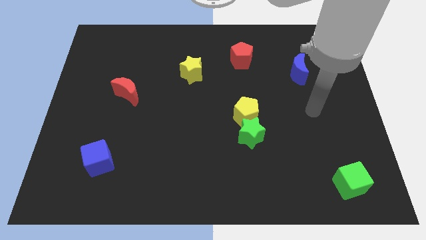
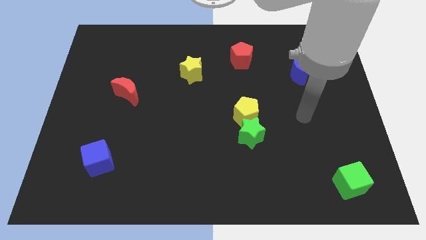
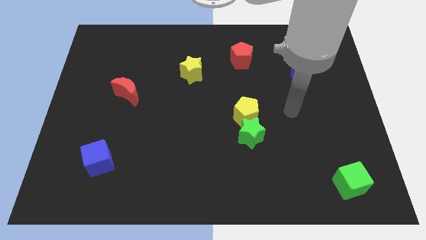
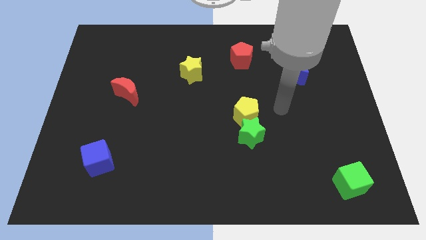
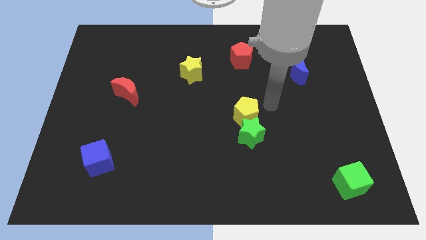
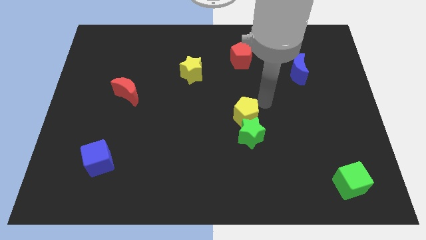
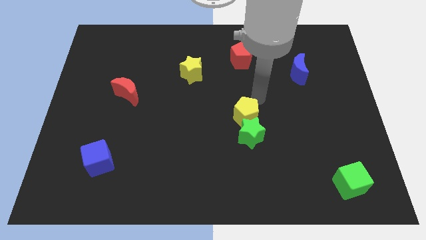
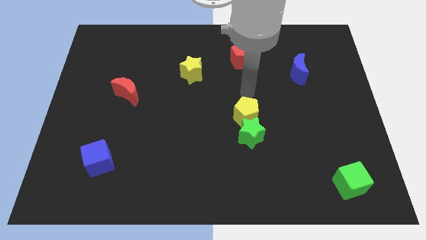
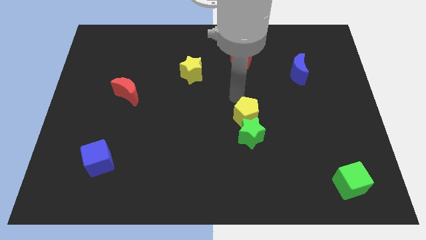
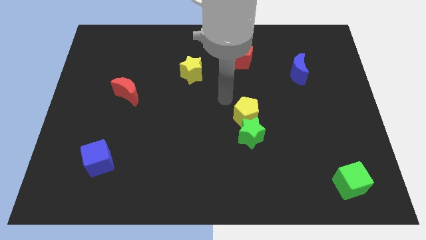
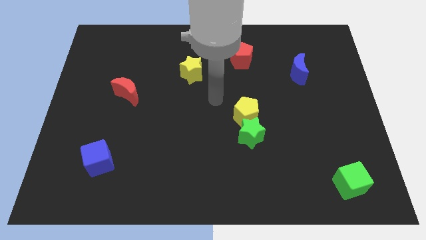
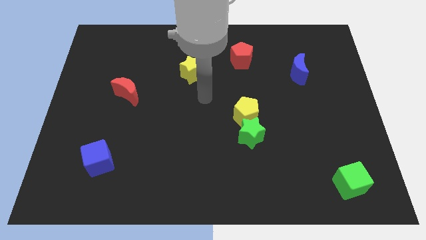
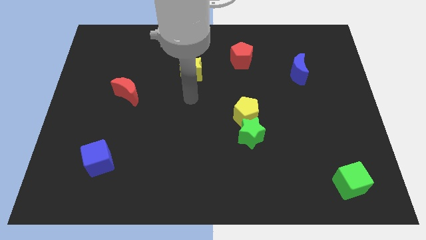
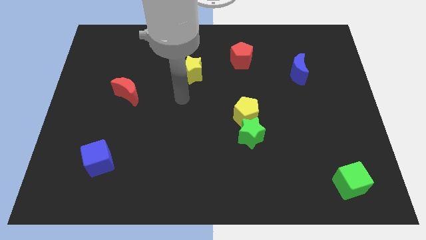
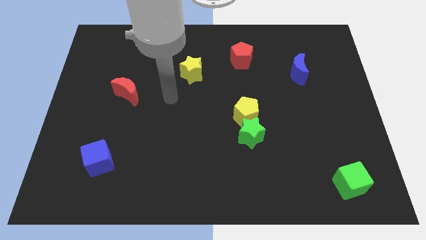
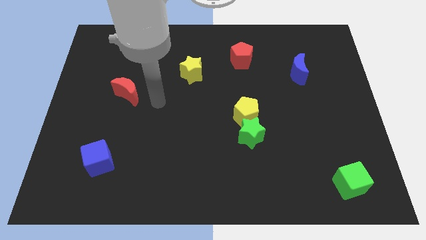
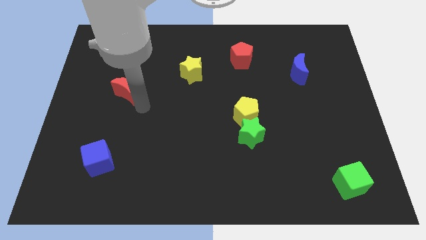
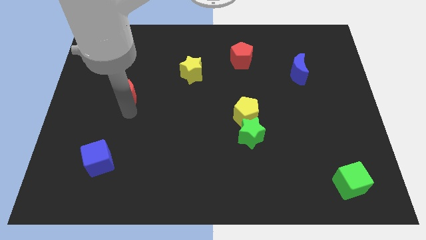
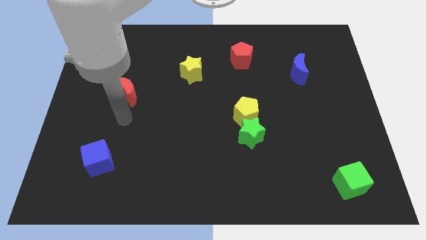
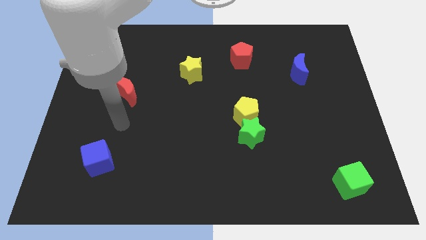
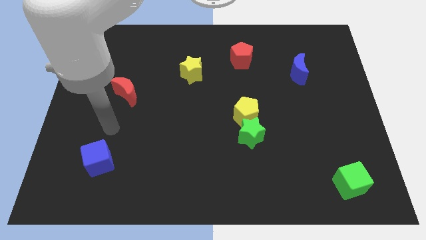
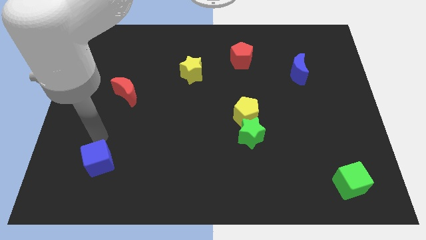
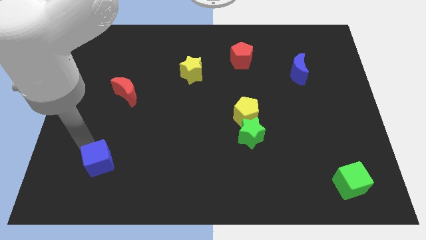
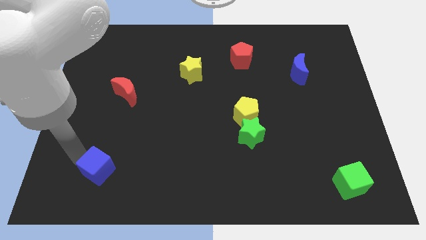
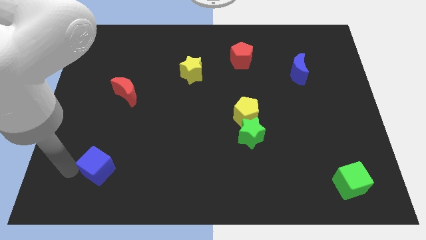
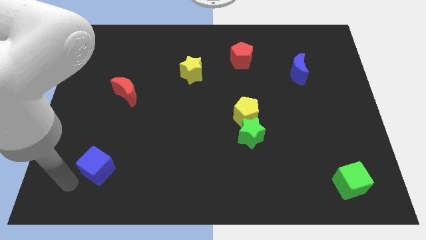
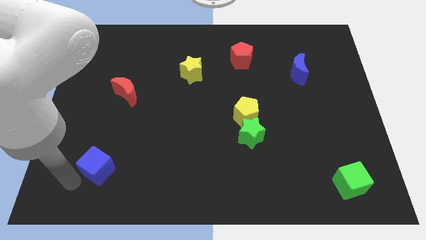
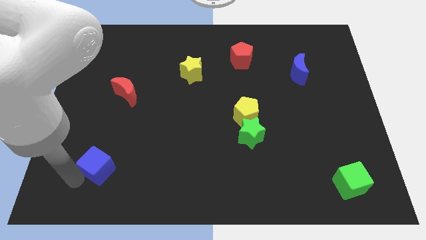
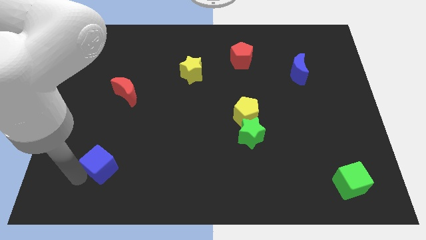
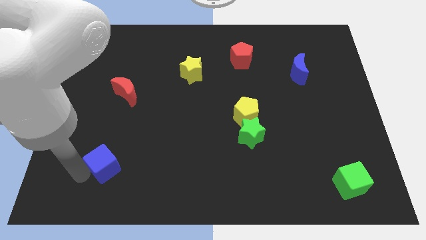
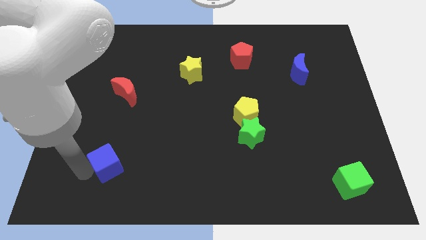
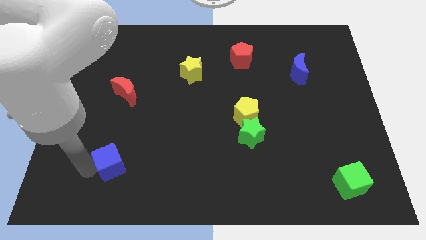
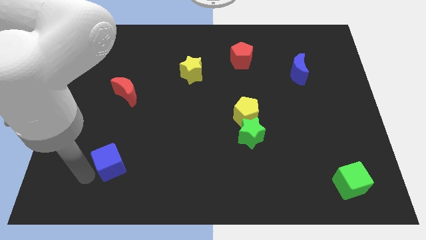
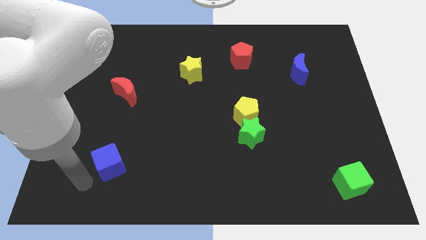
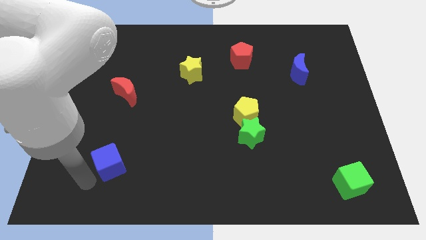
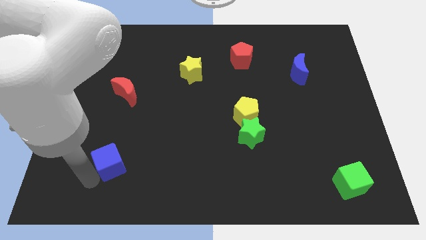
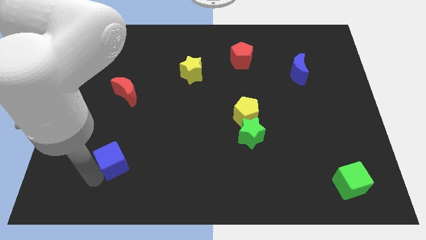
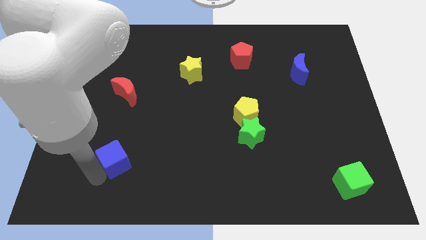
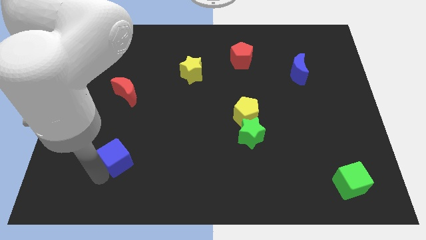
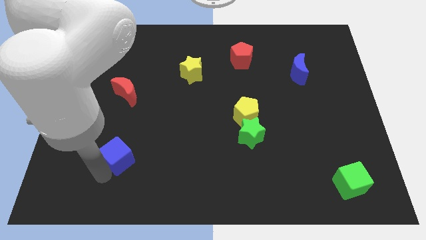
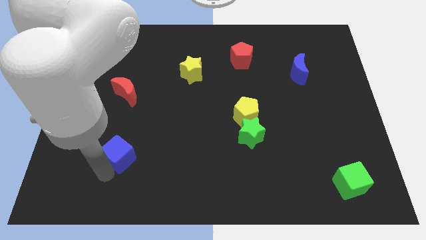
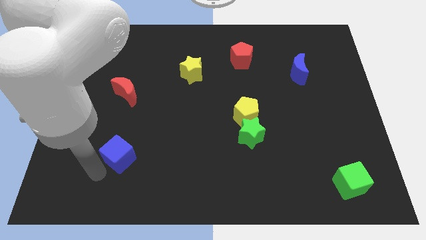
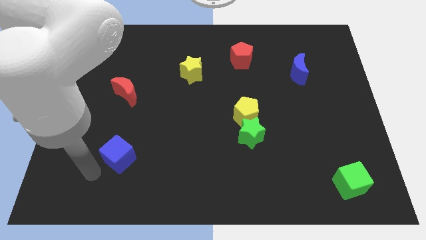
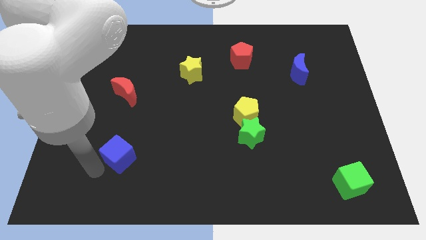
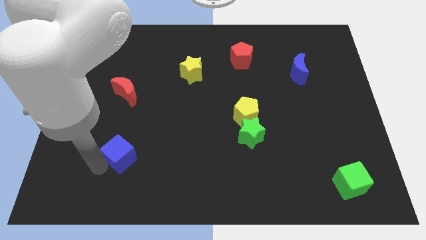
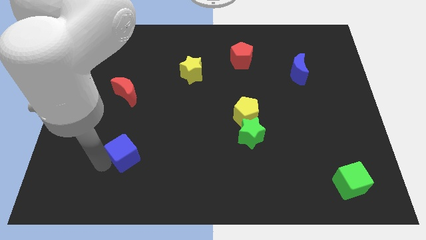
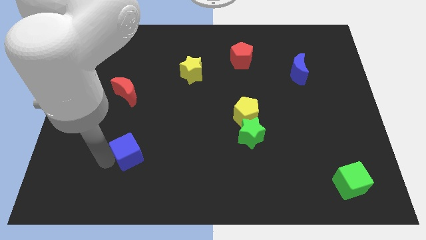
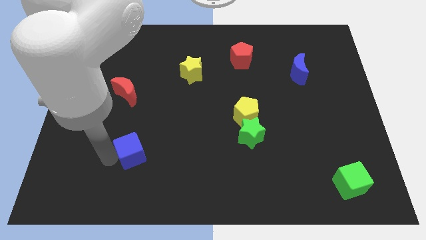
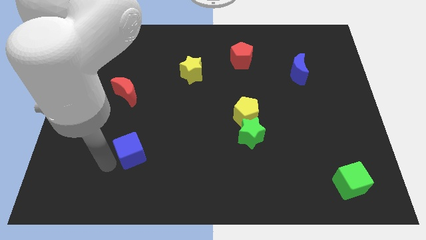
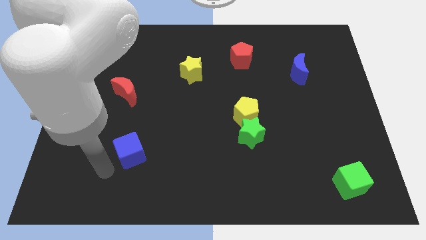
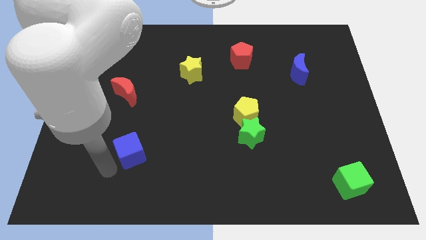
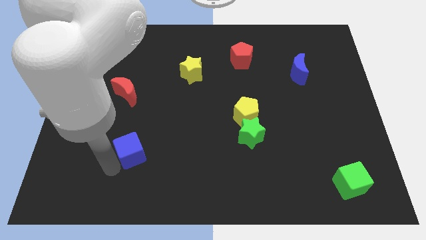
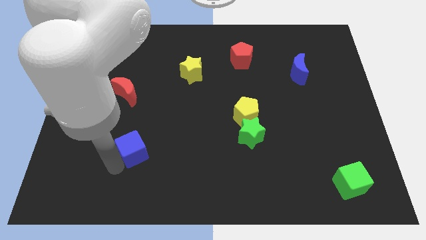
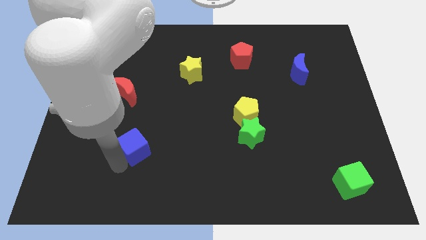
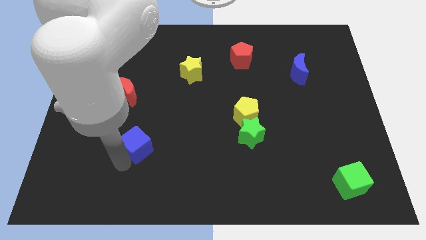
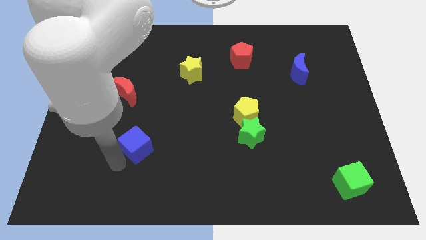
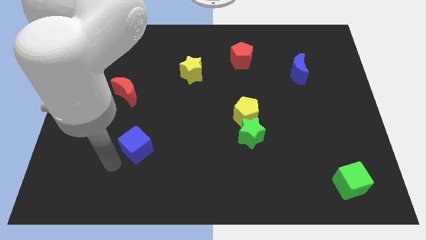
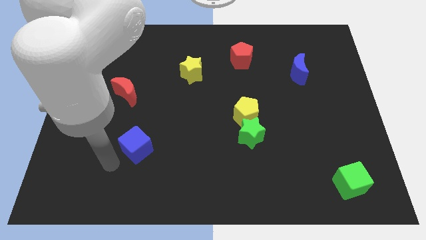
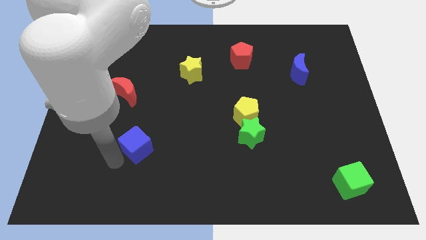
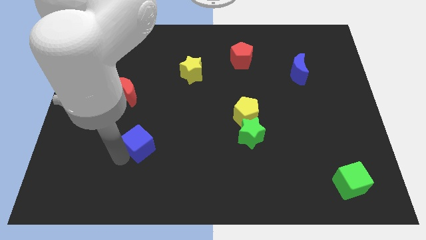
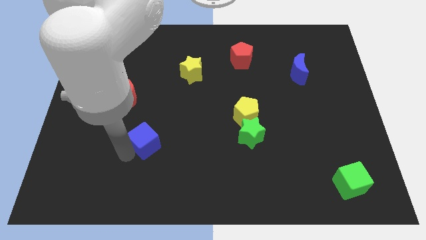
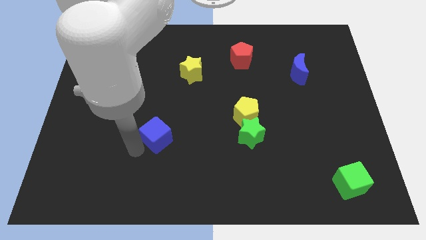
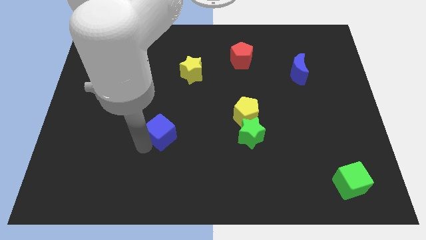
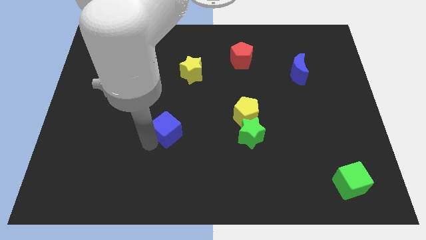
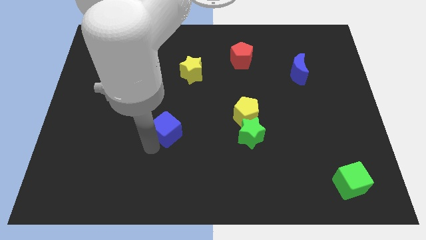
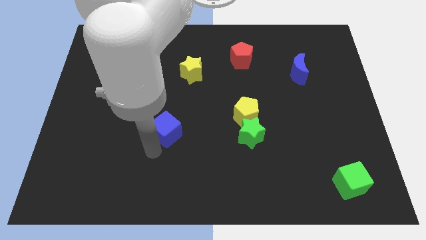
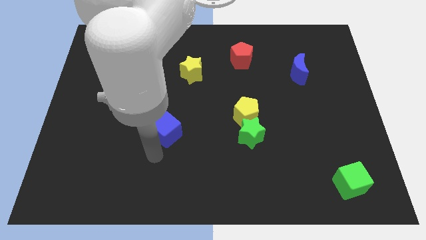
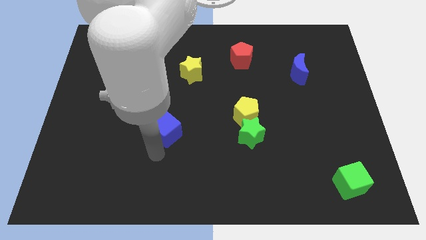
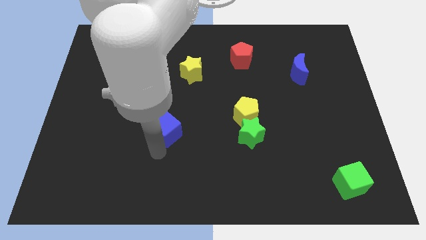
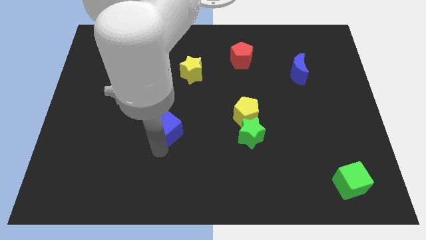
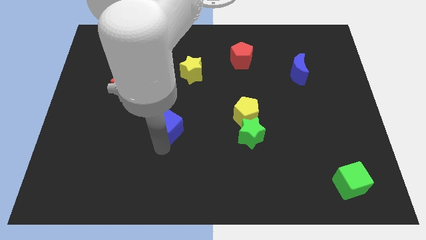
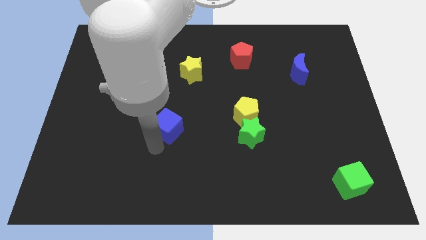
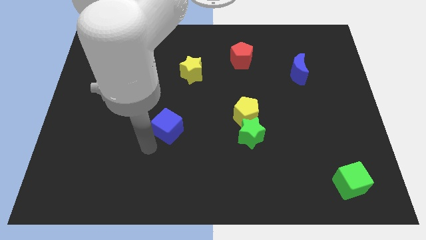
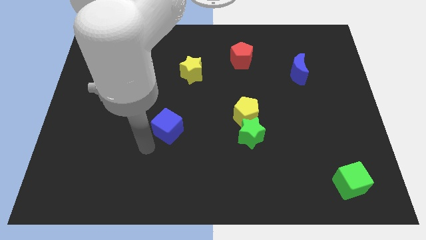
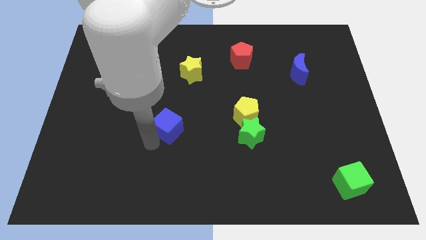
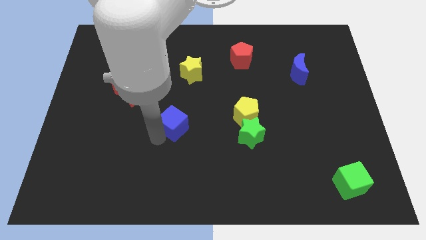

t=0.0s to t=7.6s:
move the blue cube to the center of the board

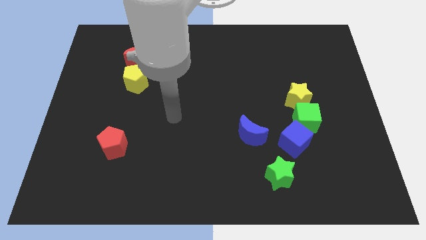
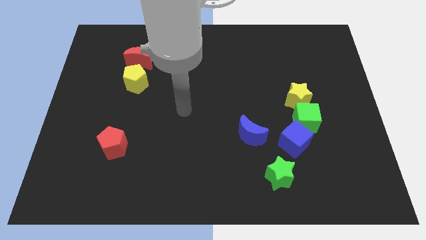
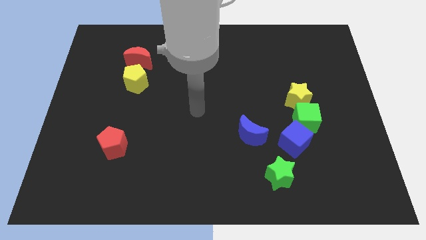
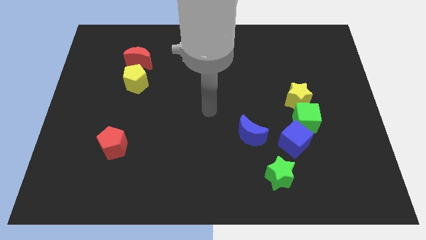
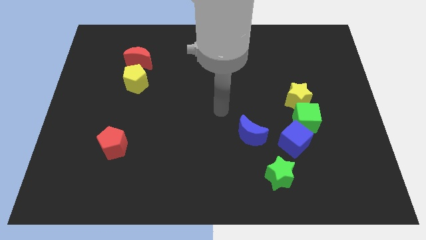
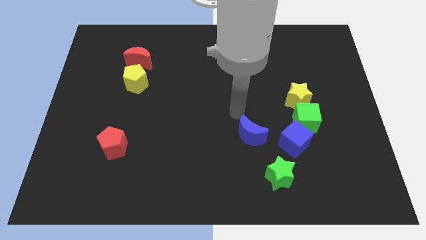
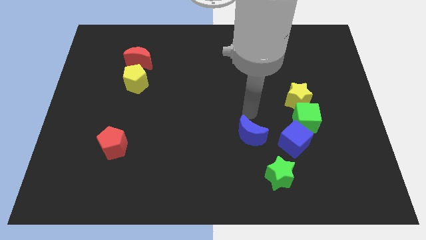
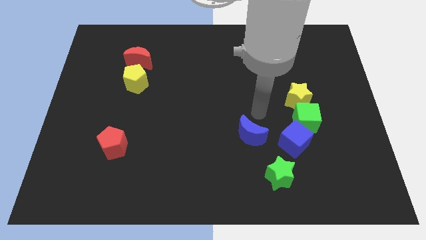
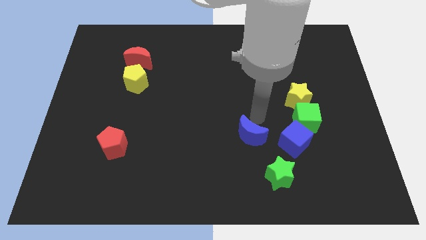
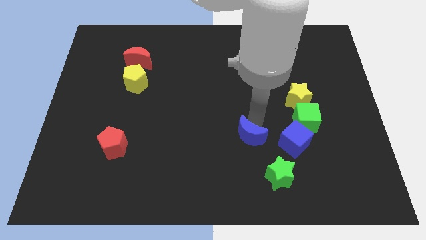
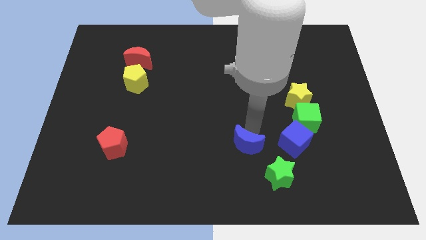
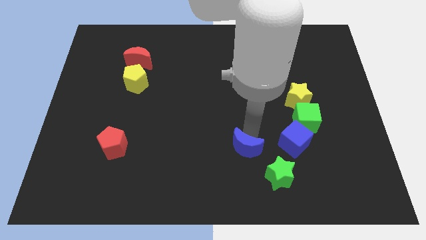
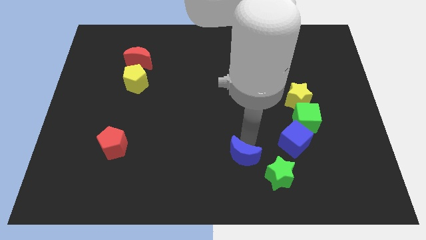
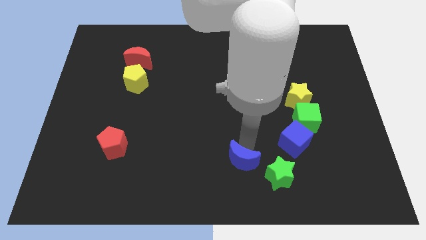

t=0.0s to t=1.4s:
put the blue moon to the bottom
